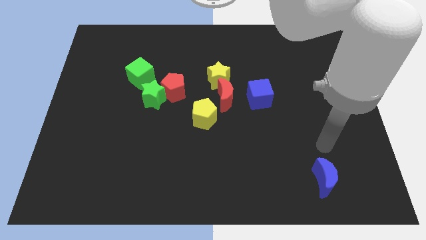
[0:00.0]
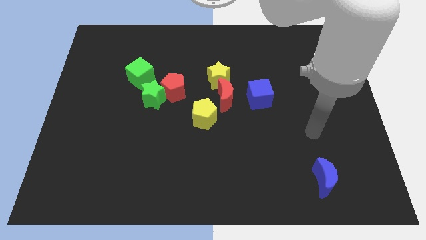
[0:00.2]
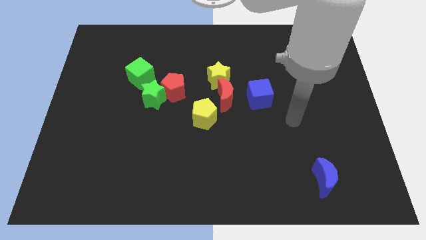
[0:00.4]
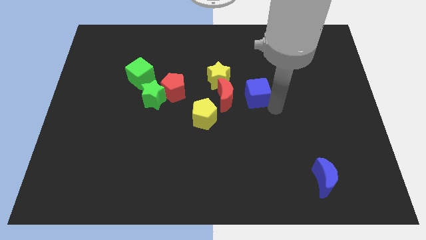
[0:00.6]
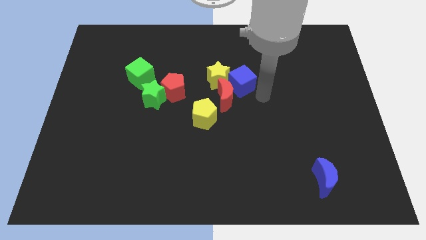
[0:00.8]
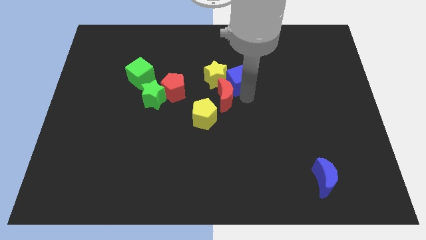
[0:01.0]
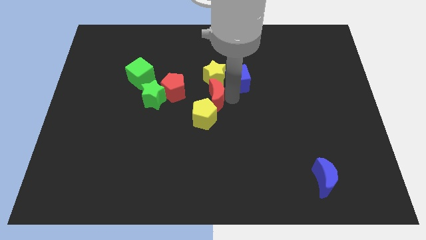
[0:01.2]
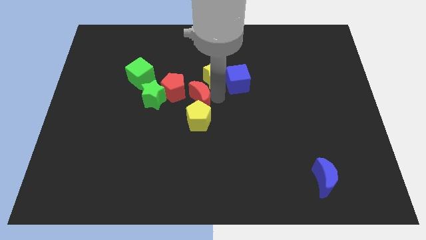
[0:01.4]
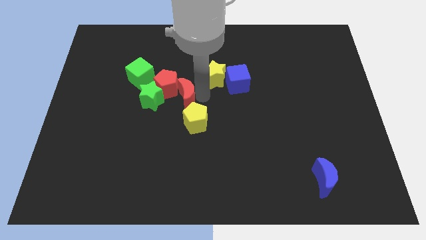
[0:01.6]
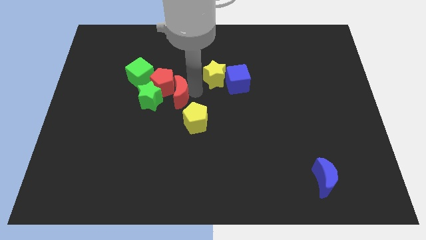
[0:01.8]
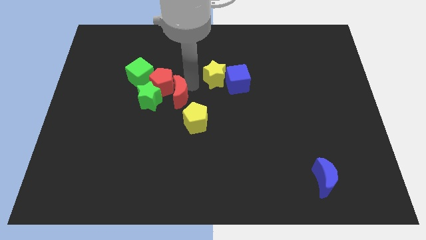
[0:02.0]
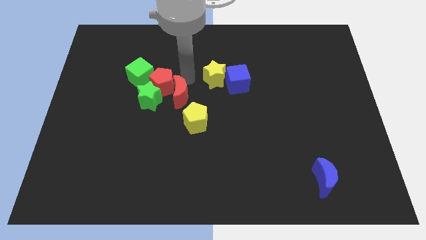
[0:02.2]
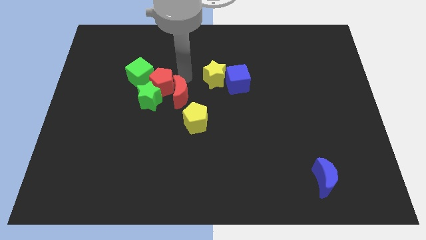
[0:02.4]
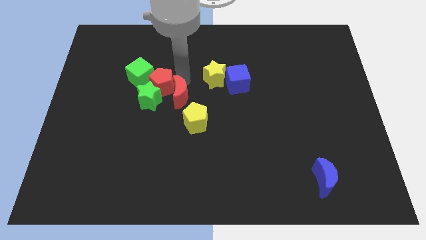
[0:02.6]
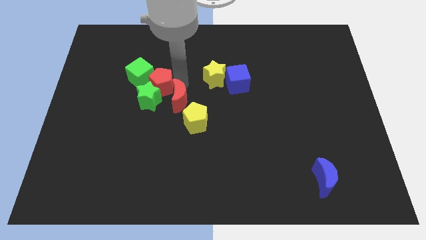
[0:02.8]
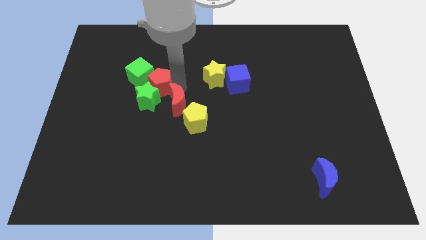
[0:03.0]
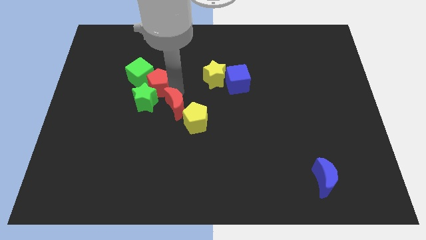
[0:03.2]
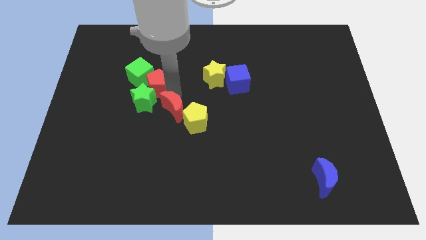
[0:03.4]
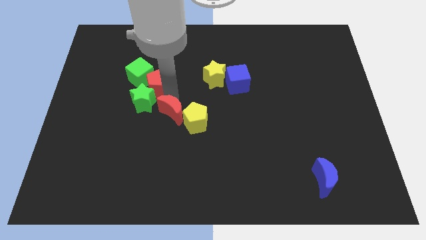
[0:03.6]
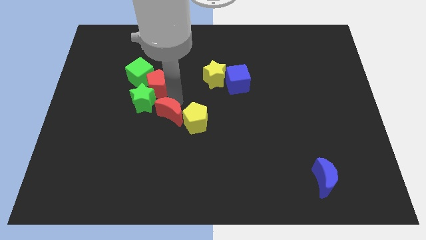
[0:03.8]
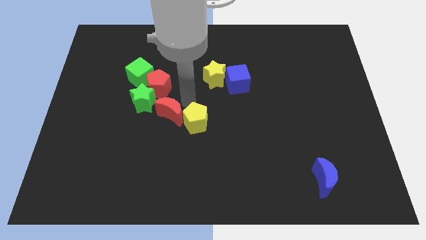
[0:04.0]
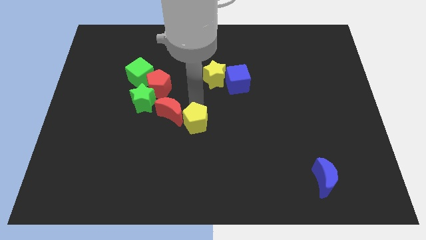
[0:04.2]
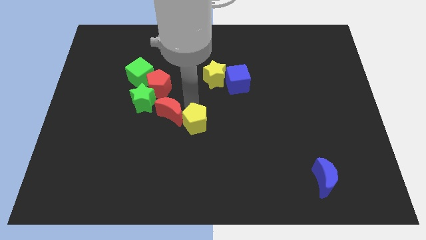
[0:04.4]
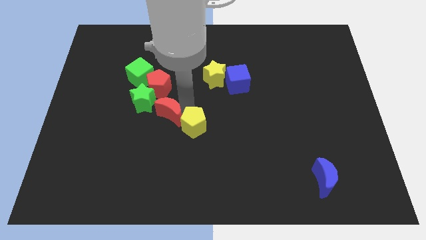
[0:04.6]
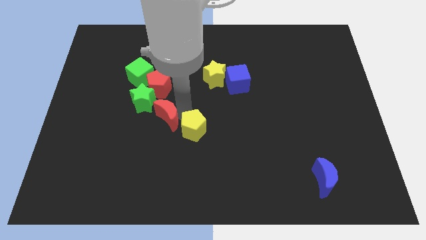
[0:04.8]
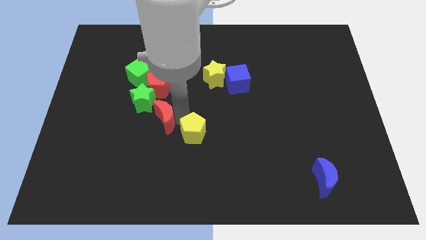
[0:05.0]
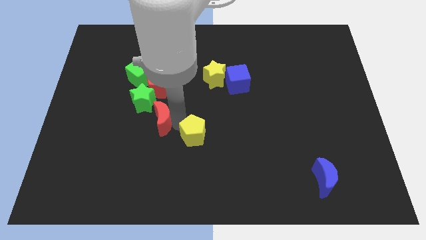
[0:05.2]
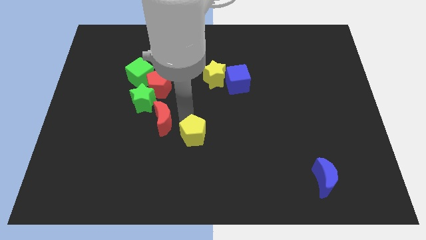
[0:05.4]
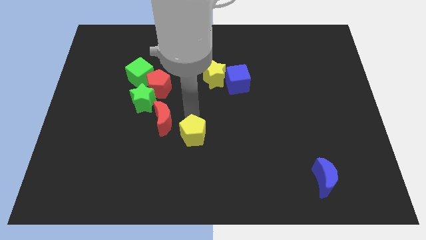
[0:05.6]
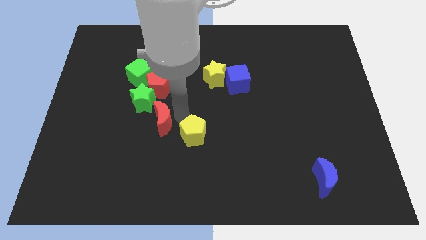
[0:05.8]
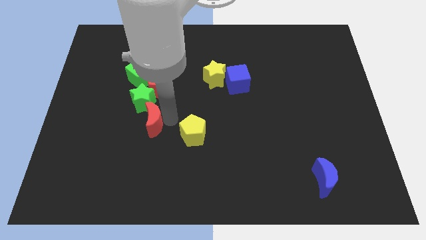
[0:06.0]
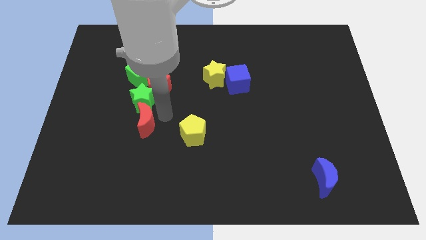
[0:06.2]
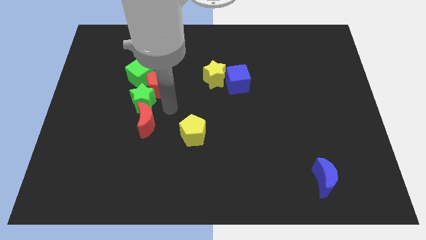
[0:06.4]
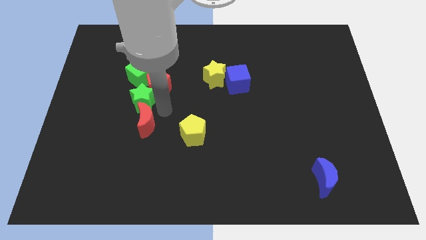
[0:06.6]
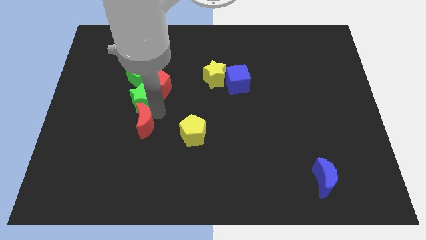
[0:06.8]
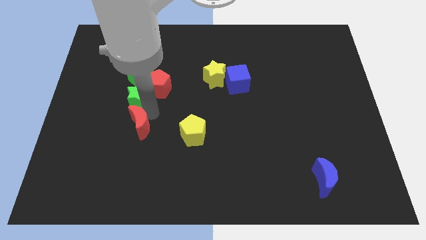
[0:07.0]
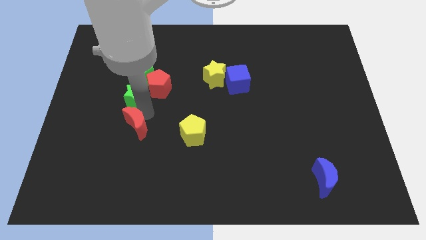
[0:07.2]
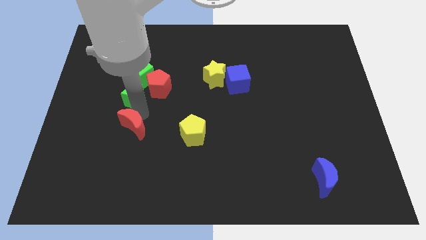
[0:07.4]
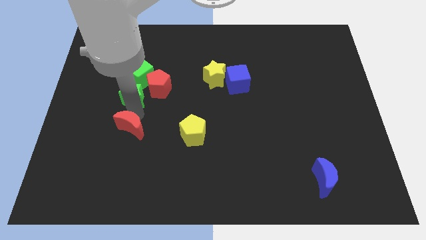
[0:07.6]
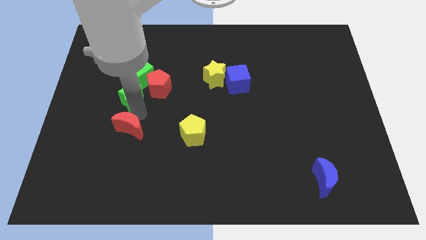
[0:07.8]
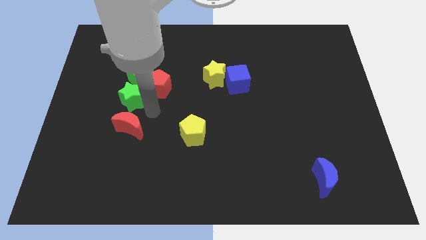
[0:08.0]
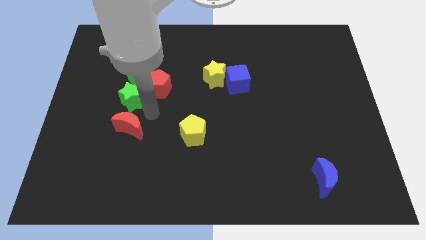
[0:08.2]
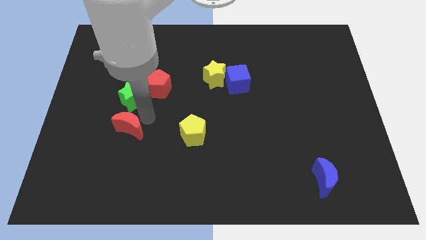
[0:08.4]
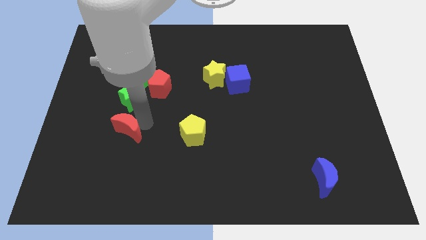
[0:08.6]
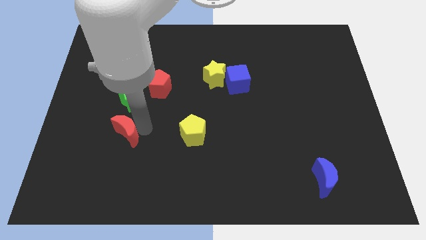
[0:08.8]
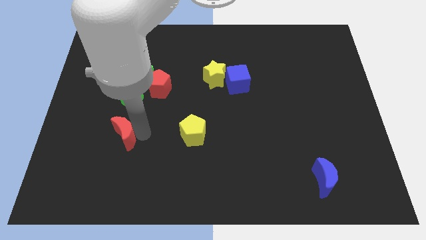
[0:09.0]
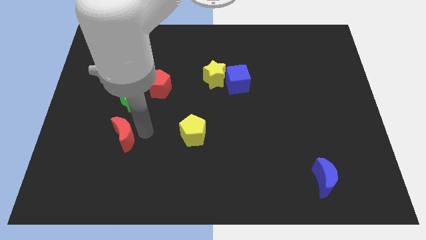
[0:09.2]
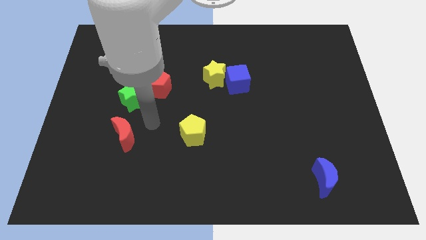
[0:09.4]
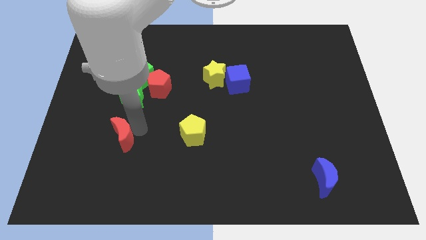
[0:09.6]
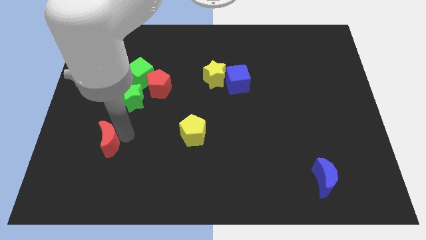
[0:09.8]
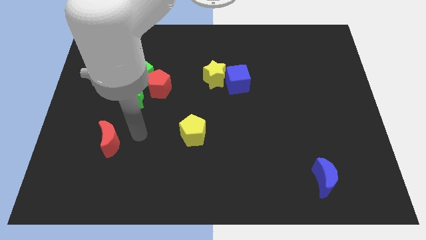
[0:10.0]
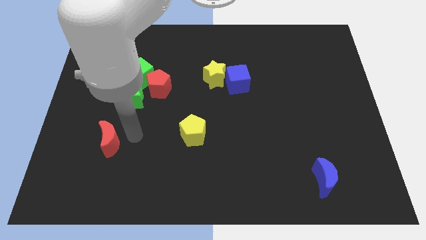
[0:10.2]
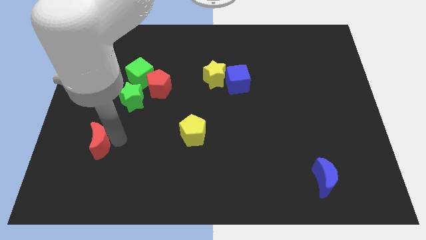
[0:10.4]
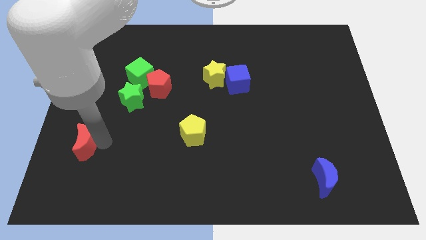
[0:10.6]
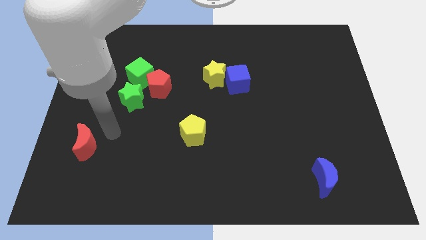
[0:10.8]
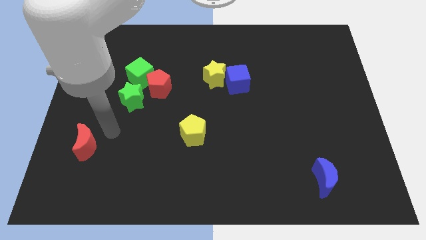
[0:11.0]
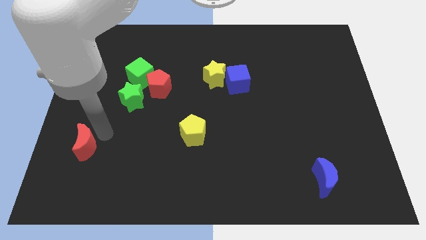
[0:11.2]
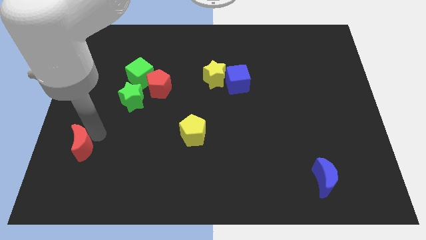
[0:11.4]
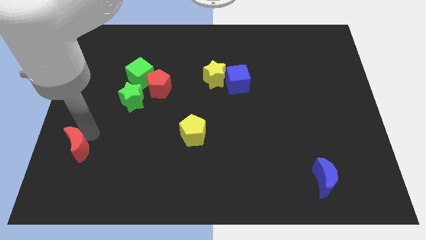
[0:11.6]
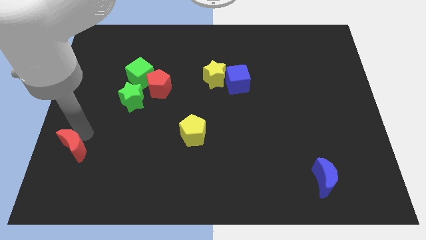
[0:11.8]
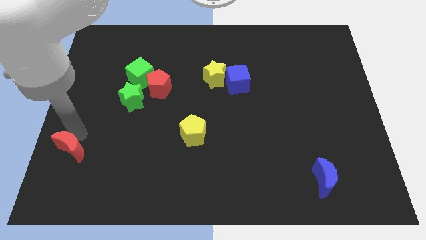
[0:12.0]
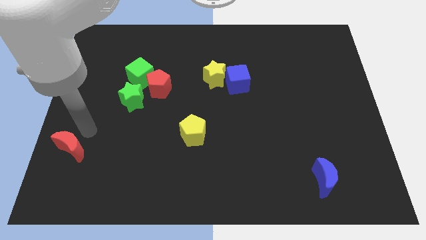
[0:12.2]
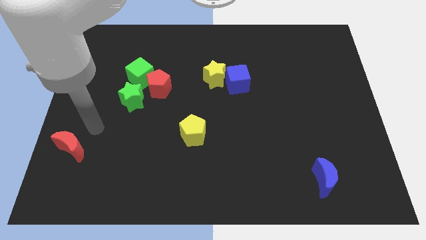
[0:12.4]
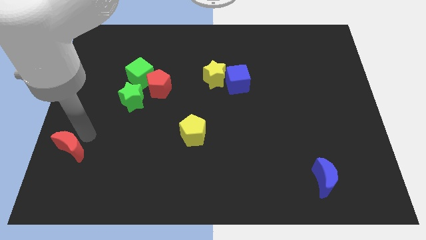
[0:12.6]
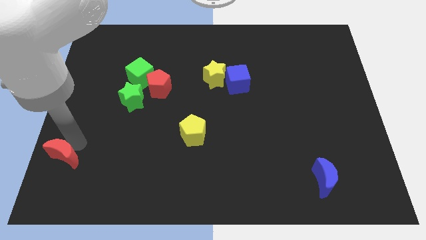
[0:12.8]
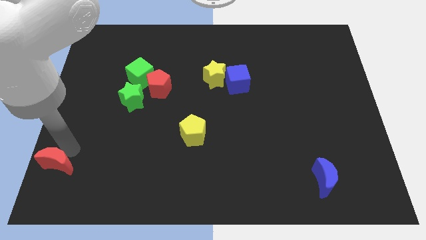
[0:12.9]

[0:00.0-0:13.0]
move the red moon to the bottom left corner
